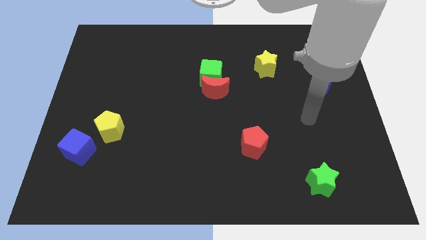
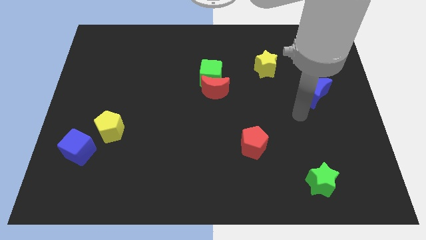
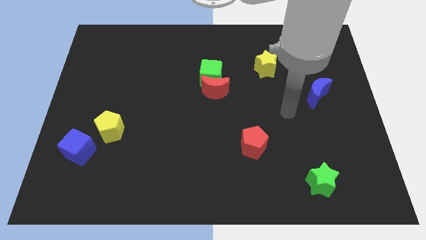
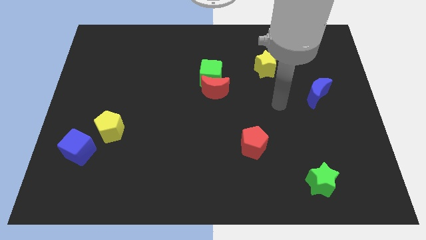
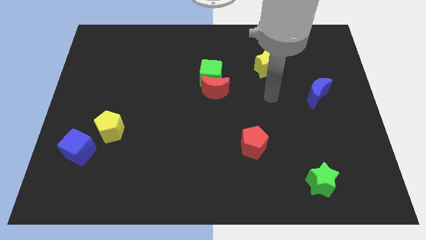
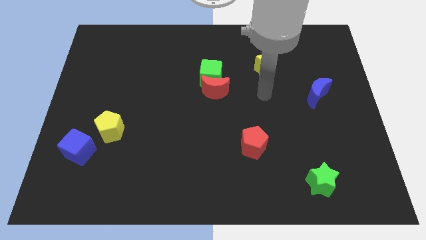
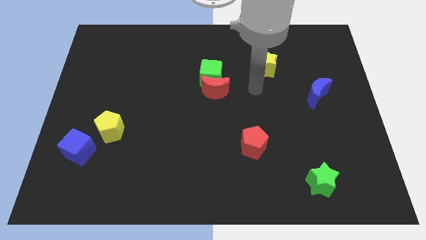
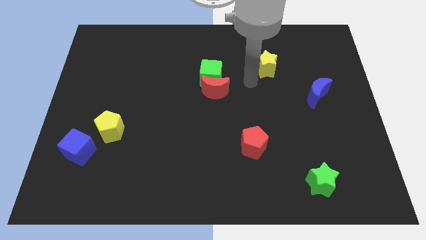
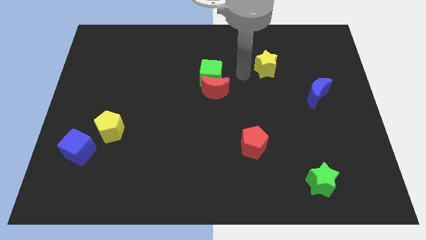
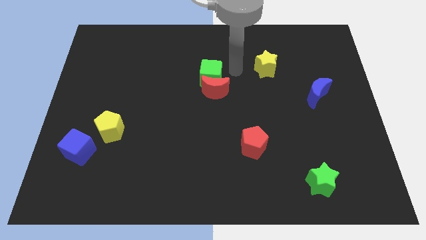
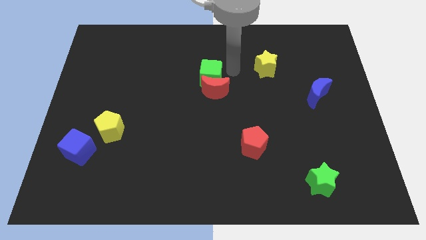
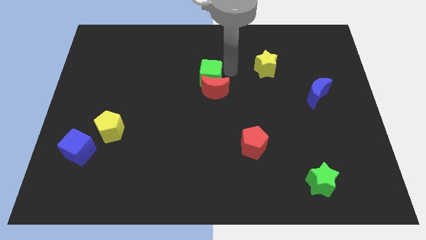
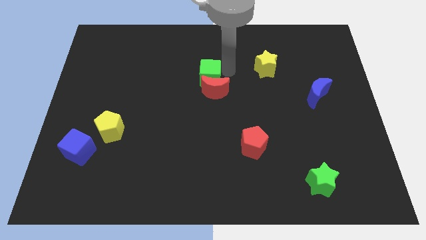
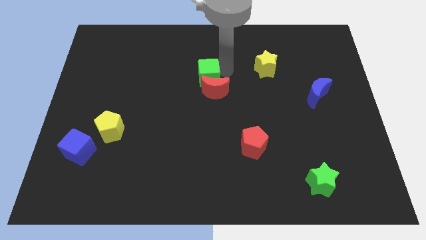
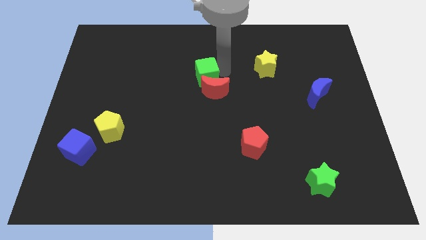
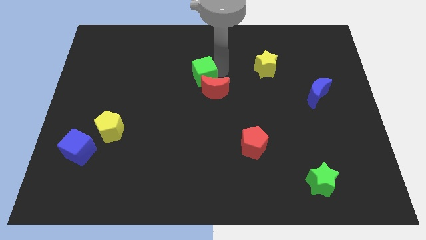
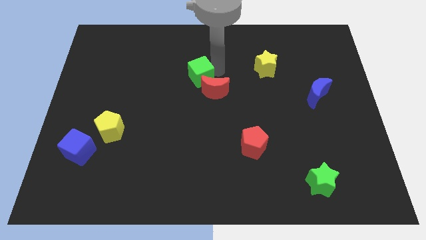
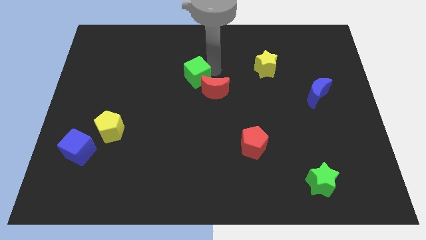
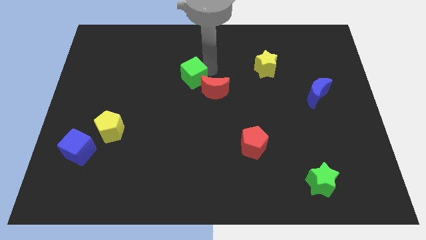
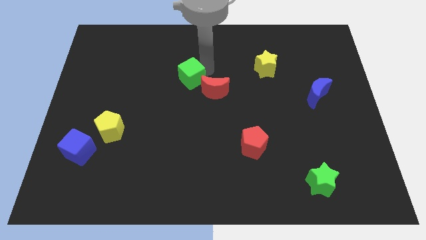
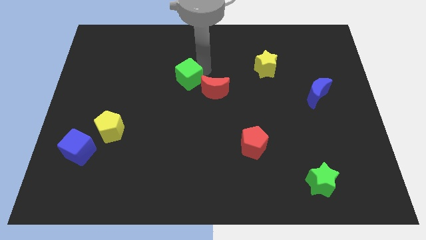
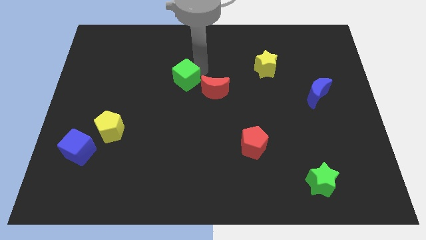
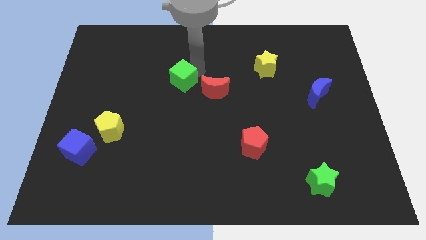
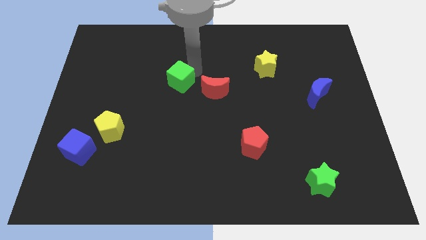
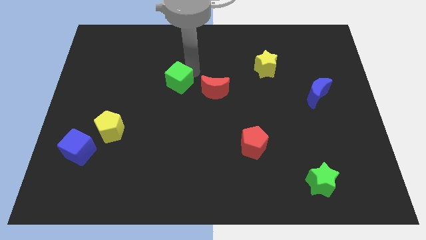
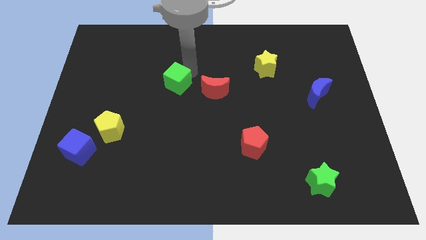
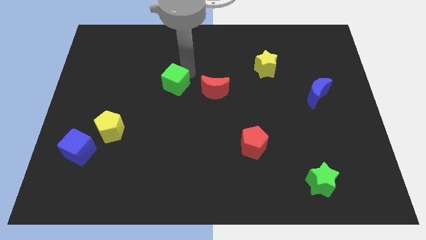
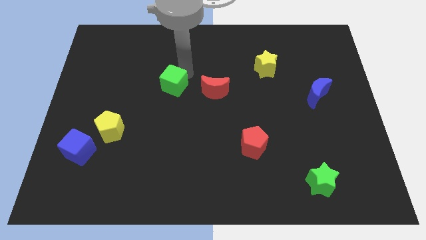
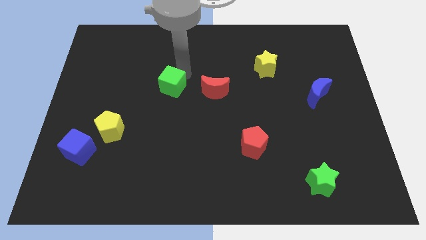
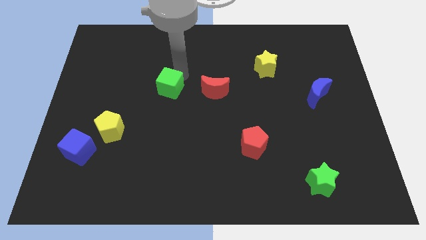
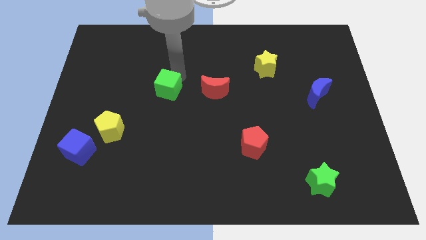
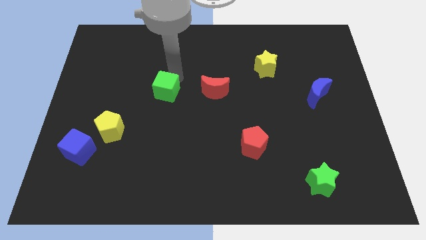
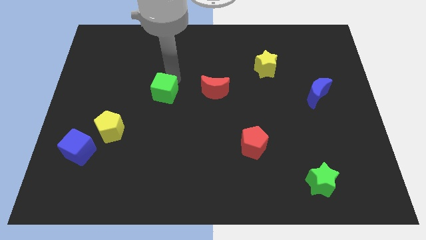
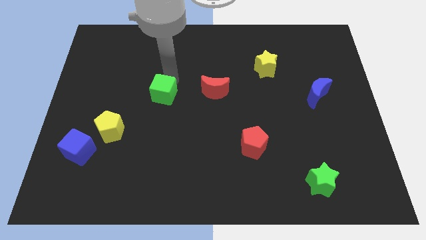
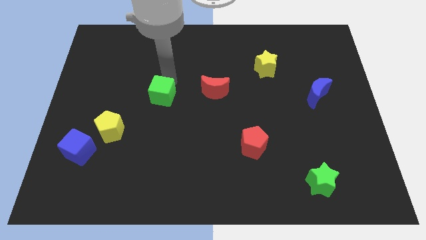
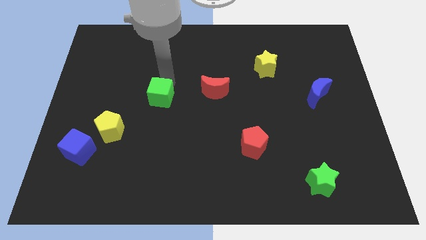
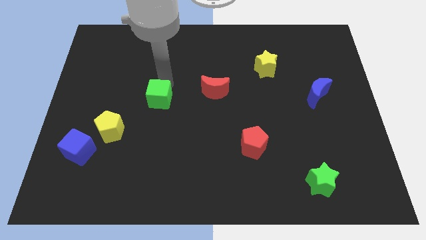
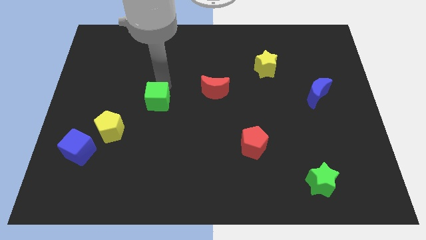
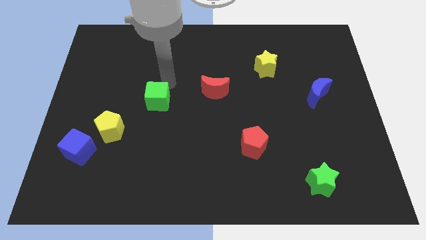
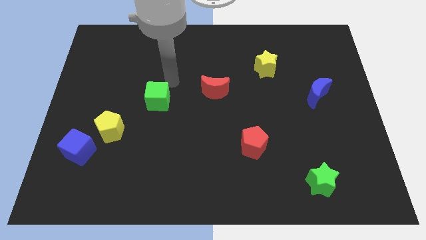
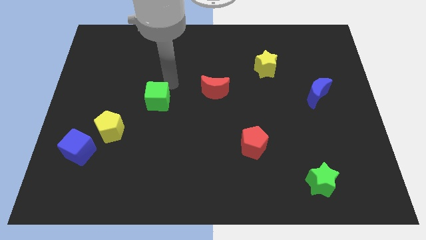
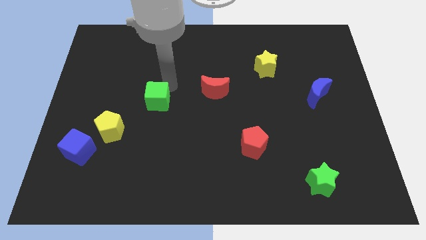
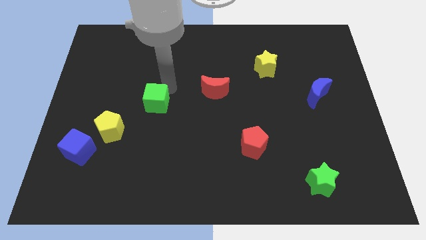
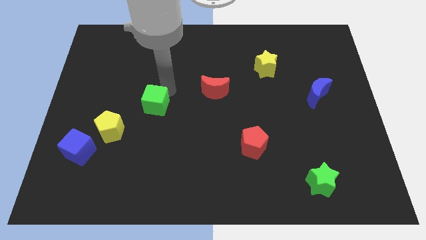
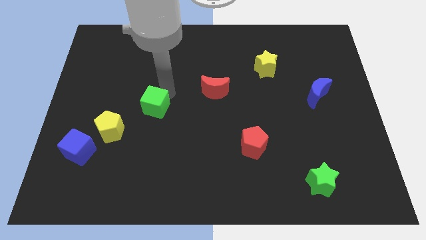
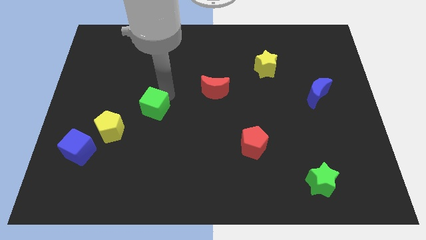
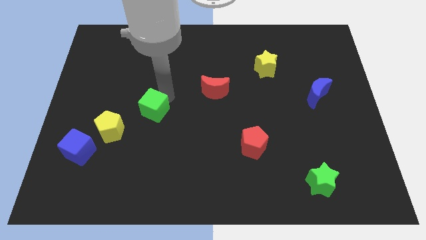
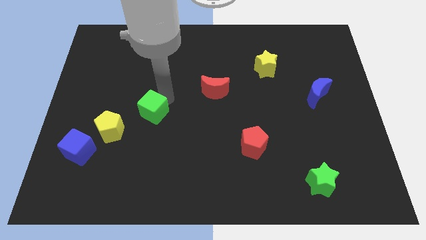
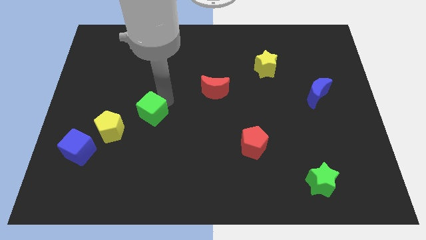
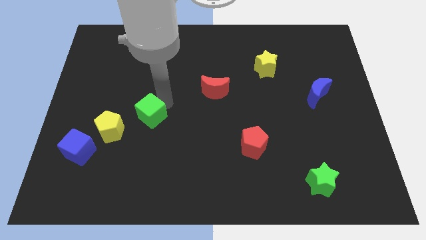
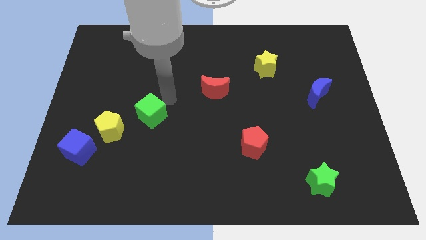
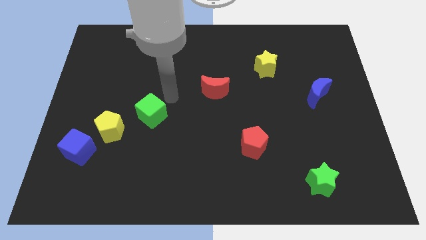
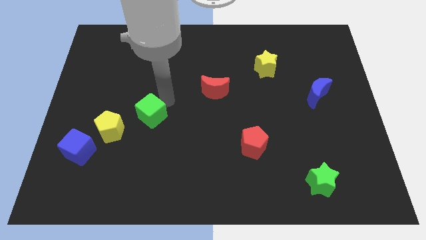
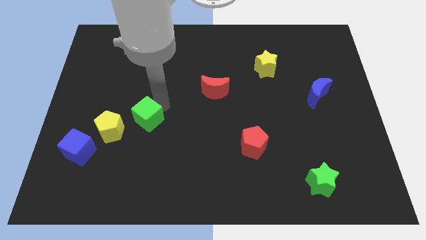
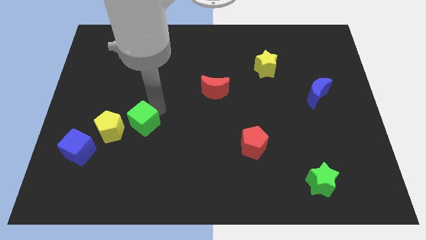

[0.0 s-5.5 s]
slide the green cube down and left

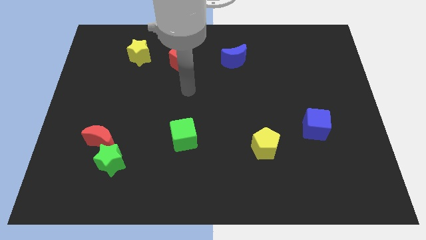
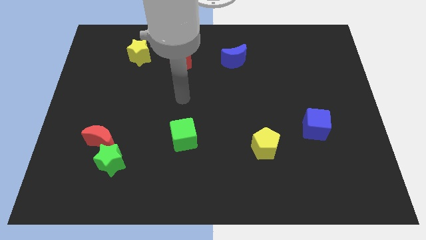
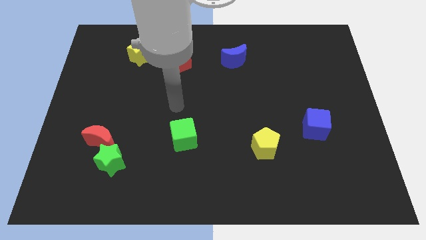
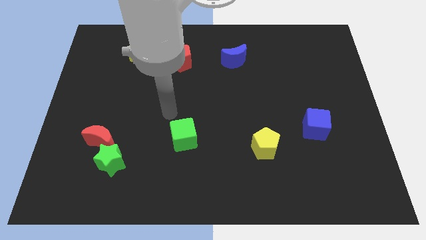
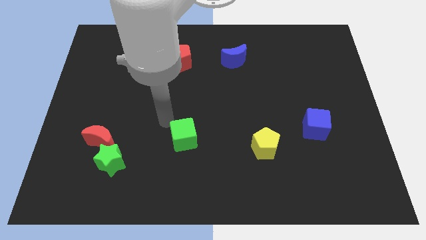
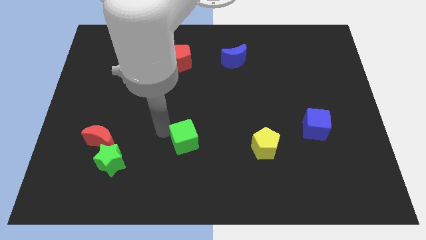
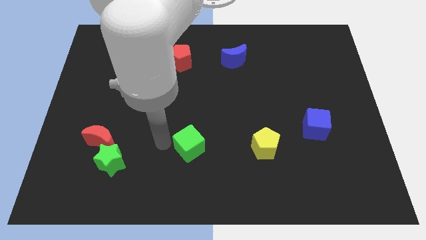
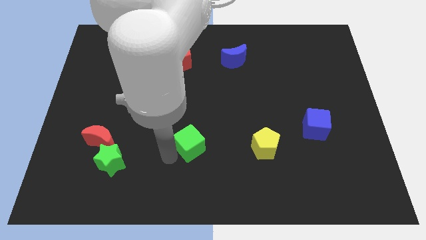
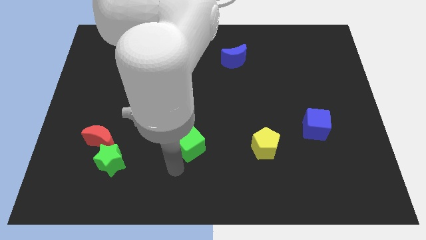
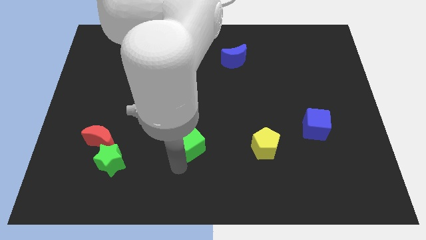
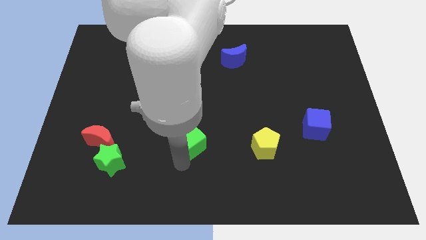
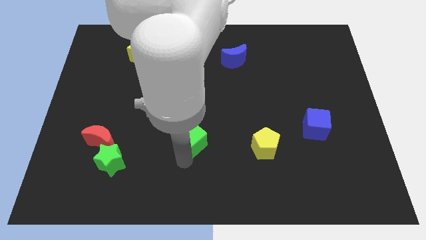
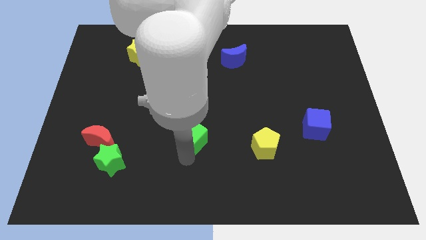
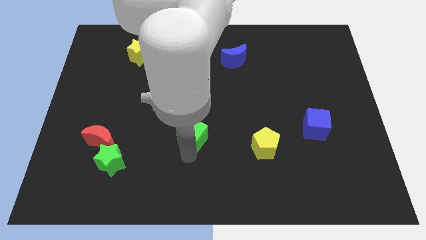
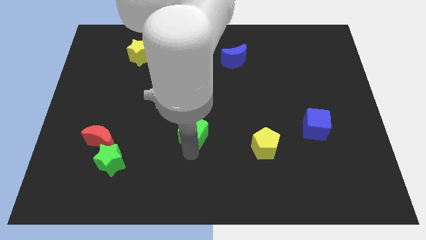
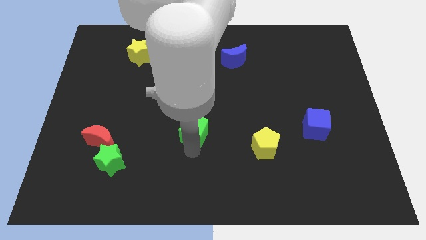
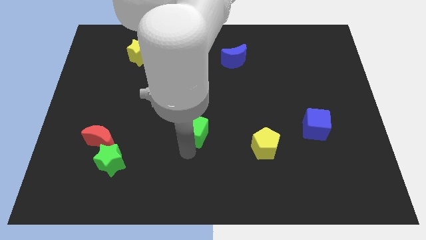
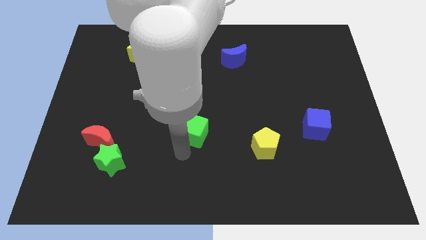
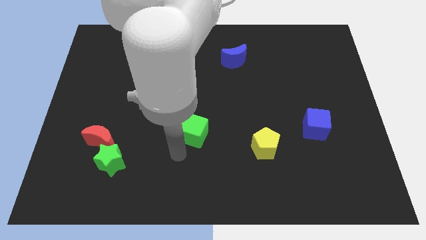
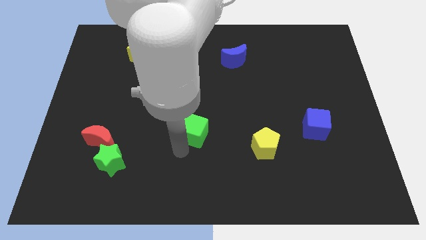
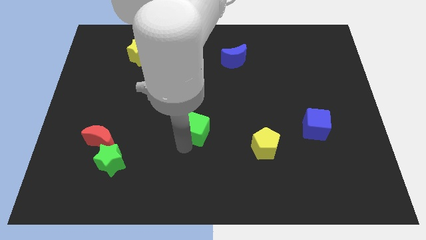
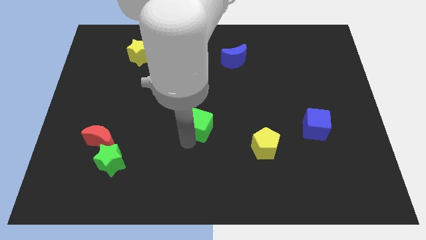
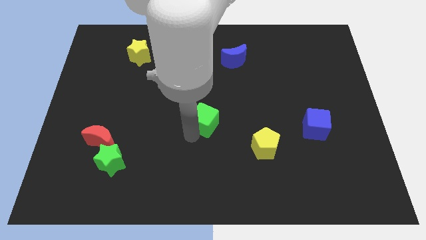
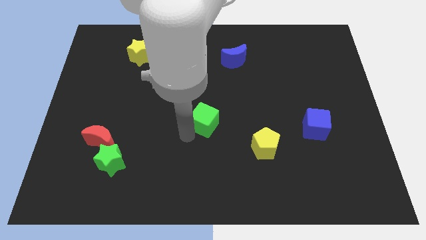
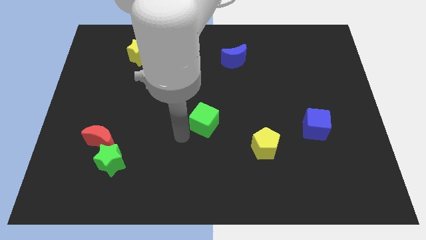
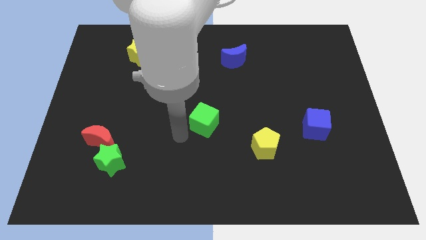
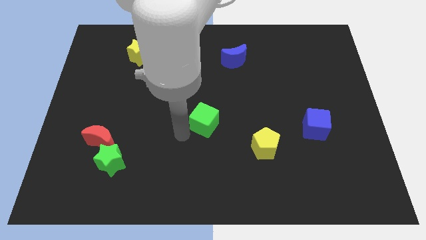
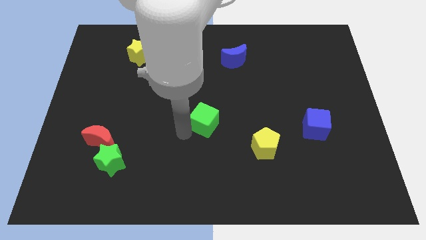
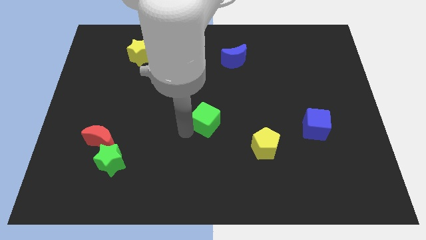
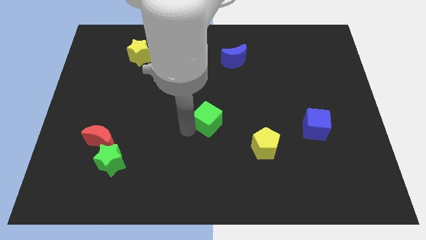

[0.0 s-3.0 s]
move the green cube somewhat diagonally upwards and to the right

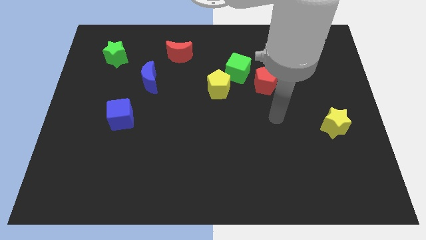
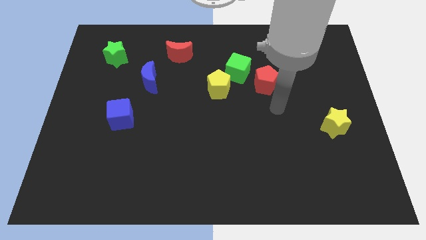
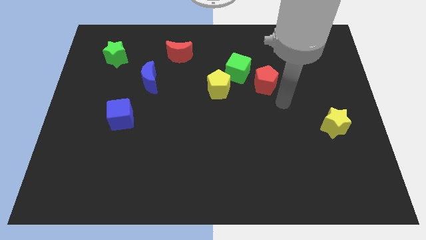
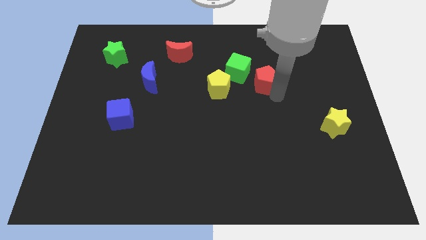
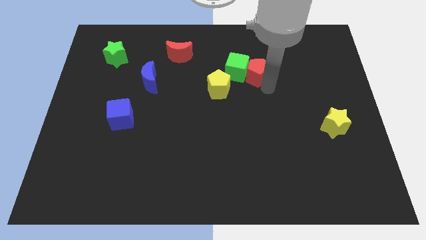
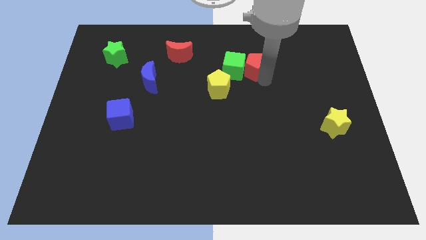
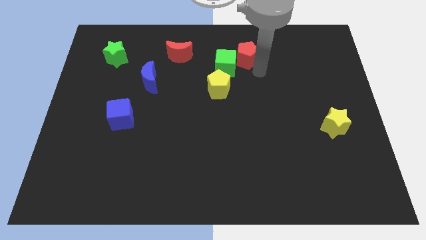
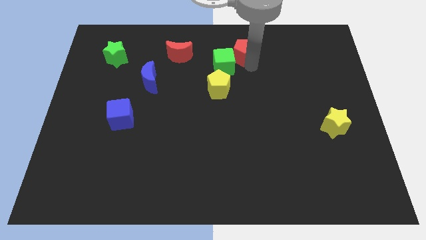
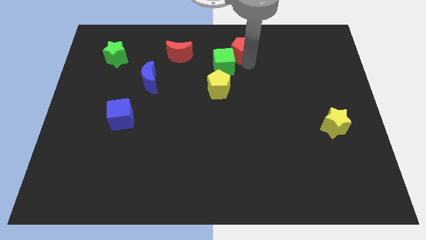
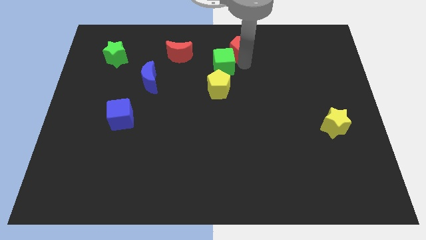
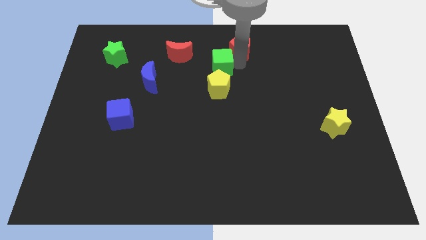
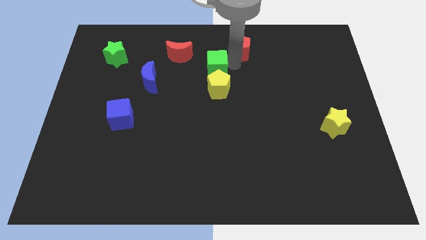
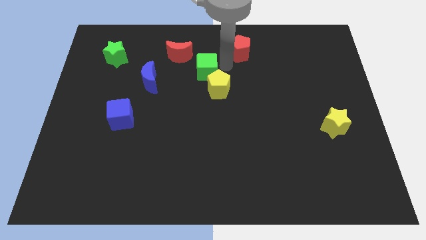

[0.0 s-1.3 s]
move the green cube left a little
